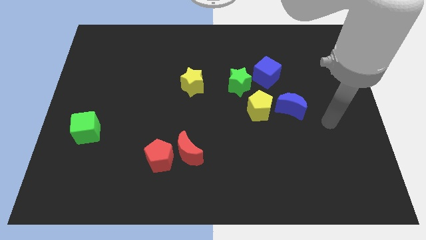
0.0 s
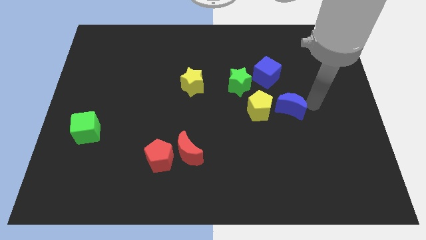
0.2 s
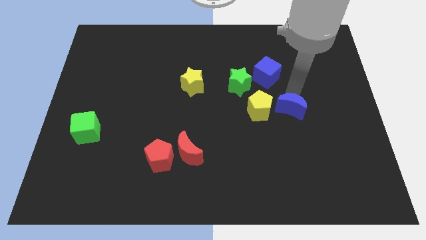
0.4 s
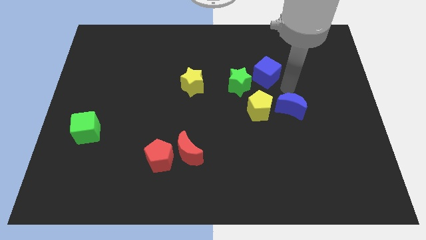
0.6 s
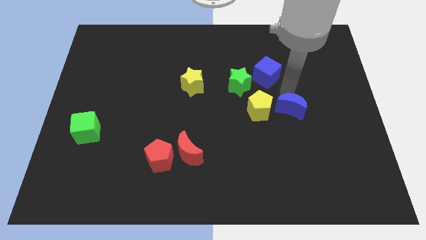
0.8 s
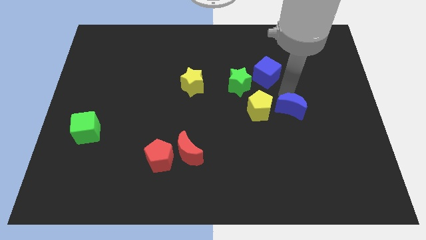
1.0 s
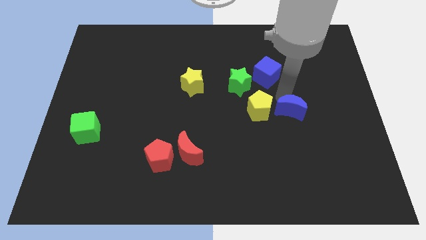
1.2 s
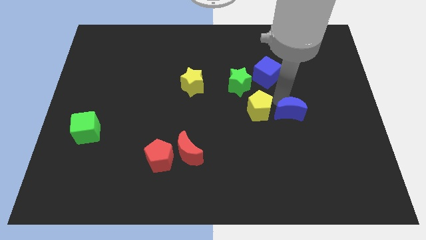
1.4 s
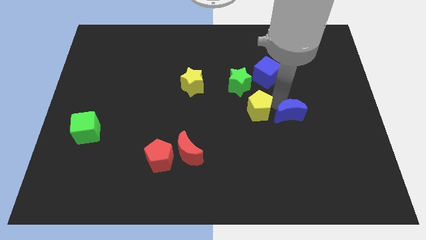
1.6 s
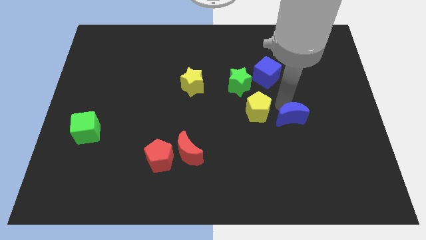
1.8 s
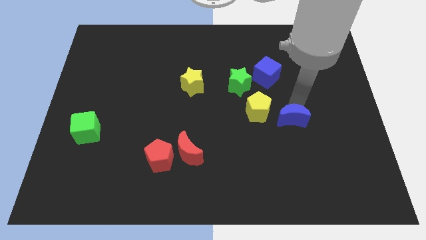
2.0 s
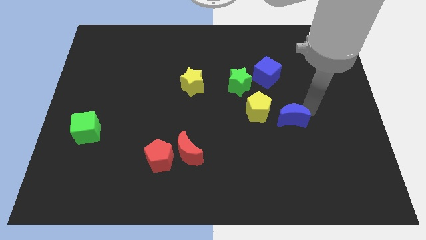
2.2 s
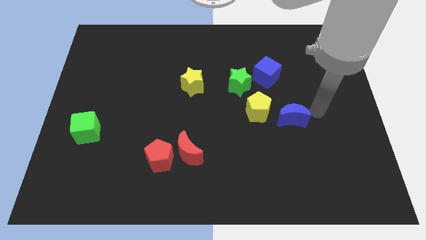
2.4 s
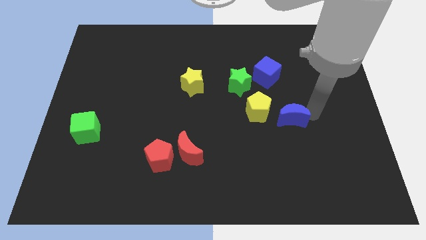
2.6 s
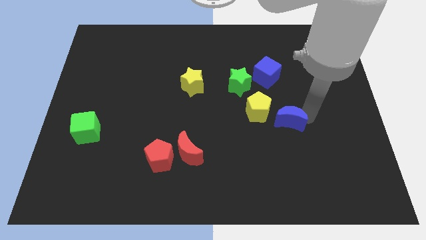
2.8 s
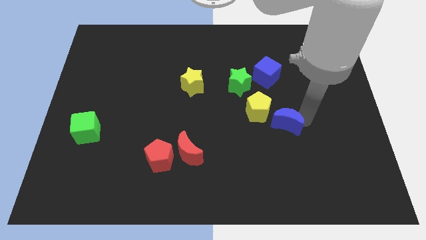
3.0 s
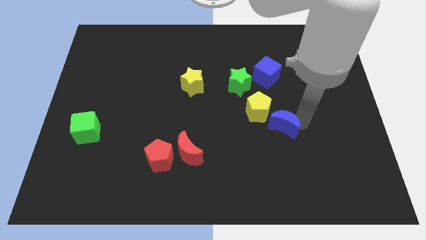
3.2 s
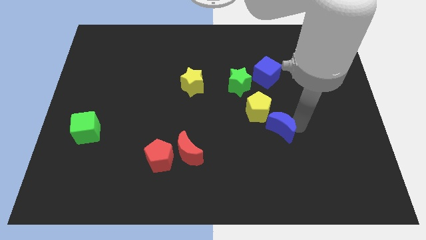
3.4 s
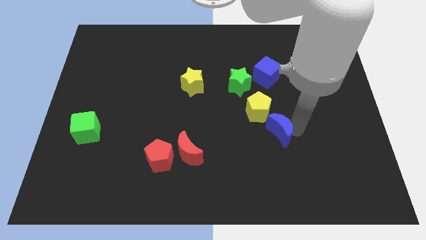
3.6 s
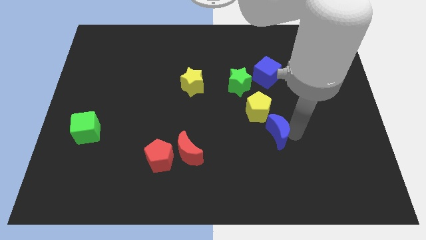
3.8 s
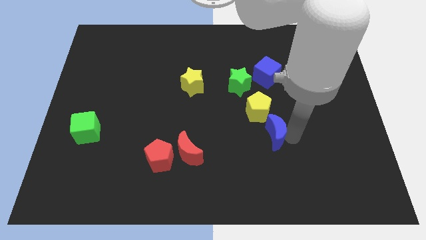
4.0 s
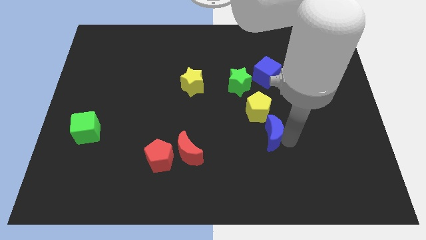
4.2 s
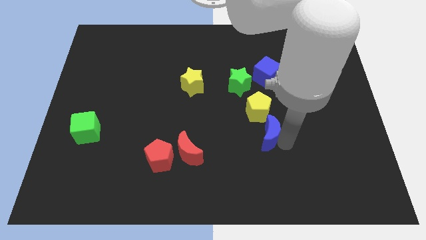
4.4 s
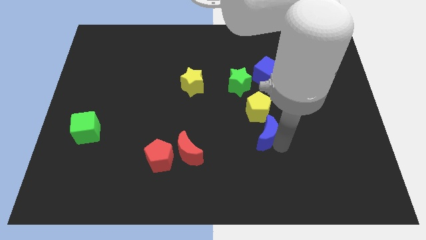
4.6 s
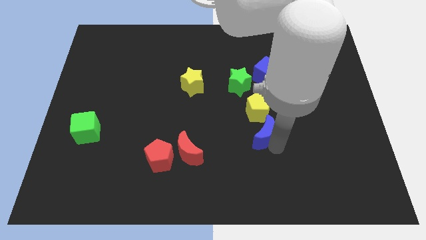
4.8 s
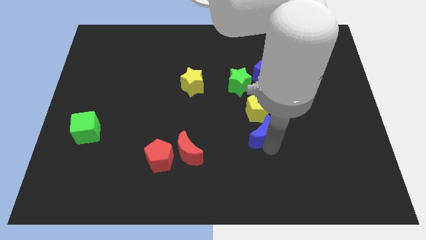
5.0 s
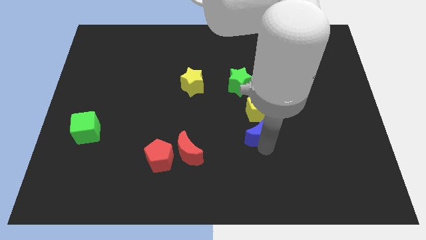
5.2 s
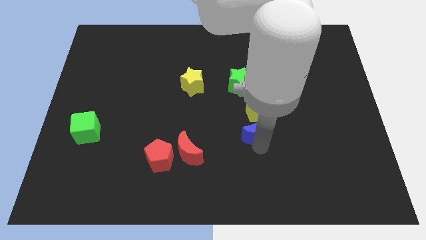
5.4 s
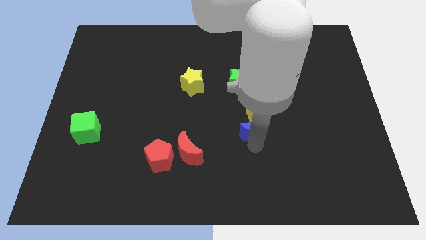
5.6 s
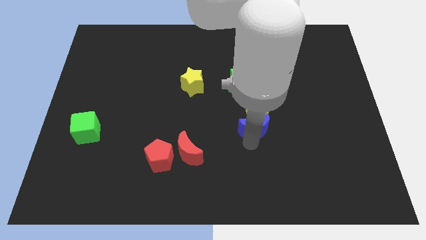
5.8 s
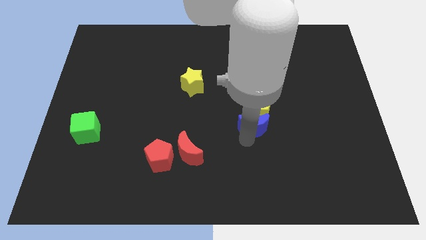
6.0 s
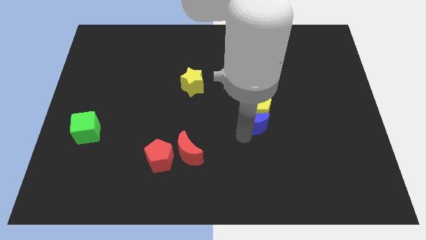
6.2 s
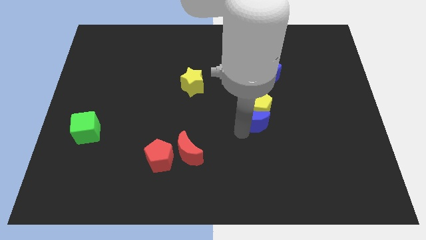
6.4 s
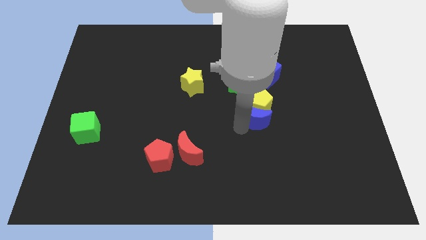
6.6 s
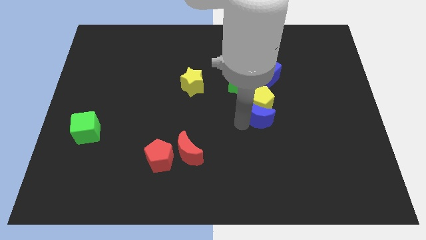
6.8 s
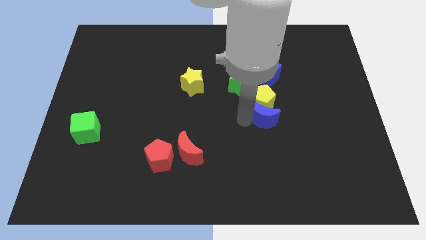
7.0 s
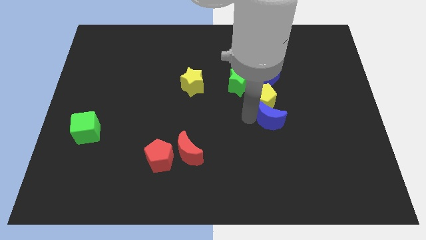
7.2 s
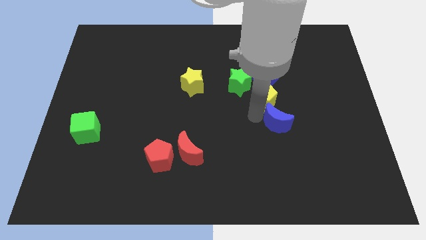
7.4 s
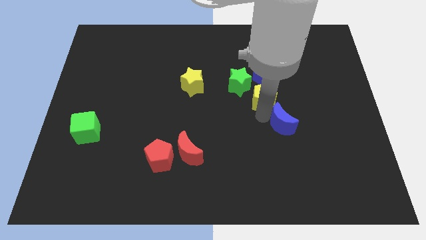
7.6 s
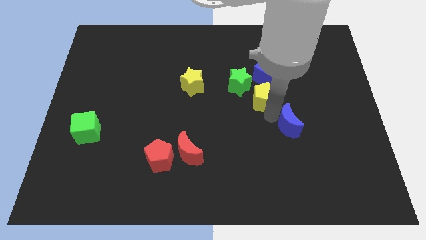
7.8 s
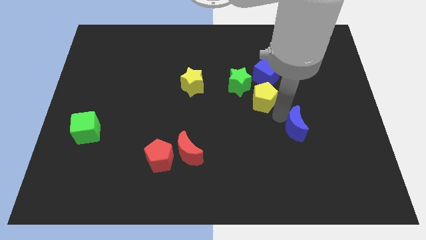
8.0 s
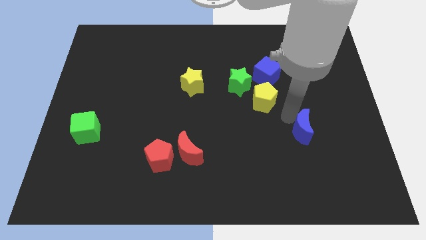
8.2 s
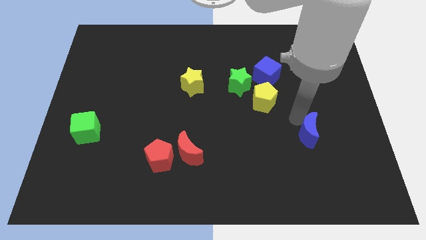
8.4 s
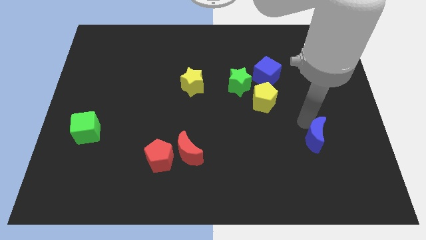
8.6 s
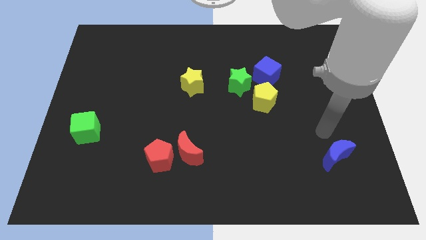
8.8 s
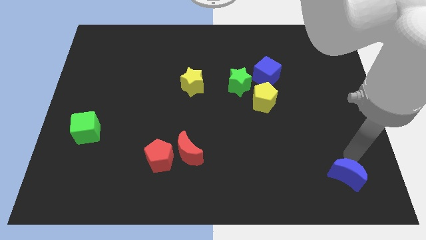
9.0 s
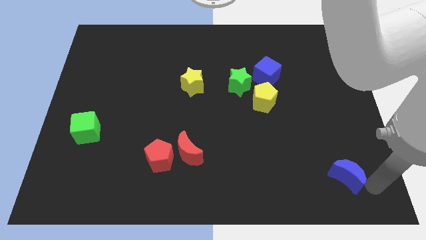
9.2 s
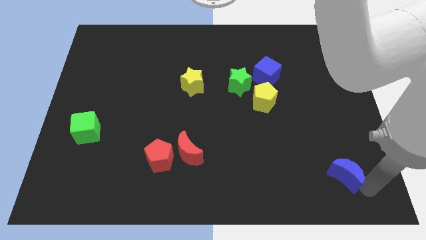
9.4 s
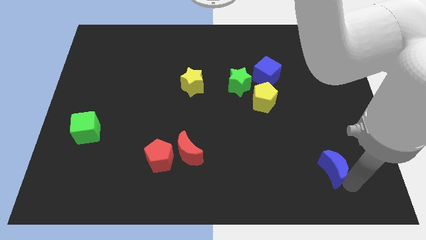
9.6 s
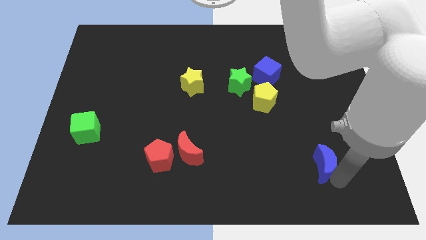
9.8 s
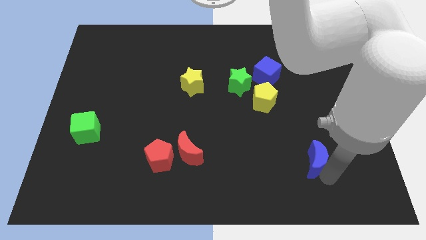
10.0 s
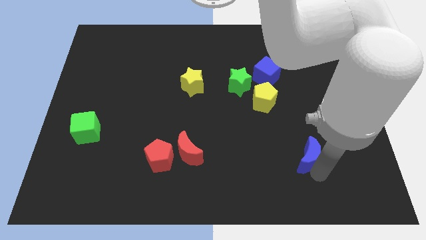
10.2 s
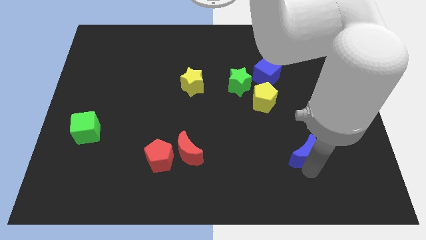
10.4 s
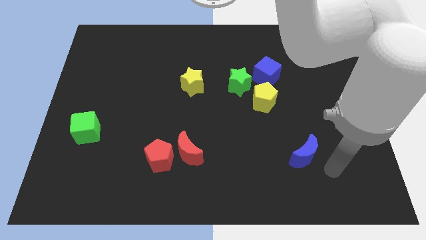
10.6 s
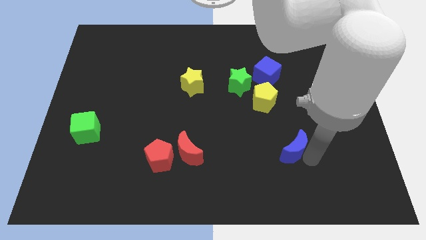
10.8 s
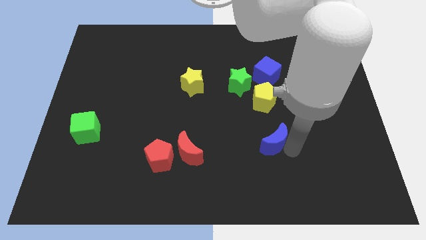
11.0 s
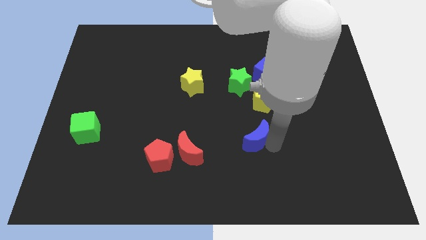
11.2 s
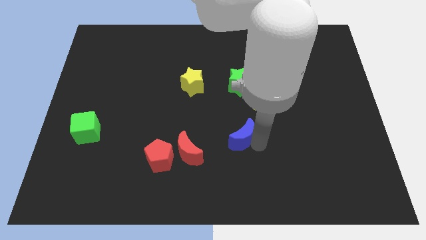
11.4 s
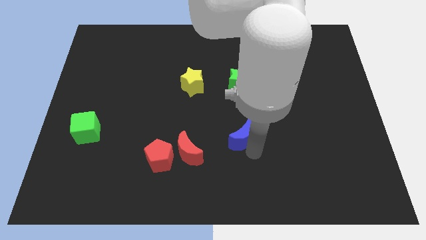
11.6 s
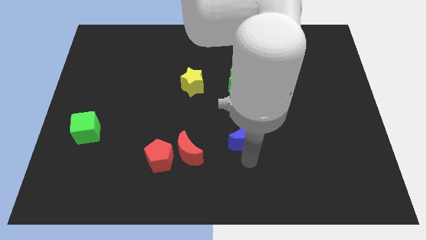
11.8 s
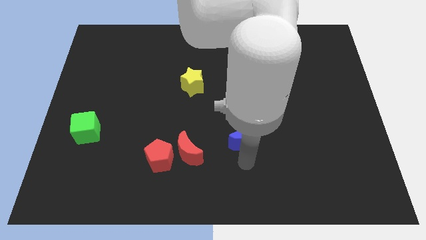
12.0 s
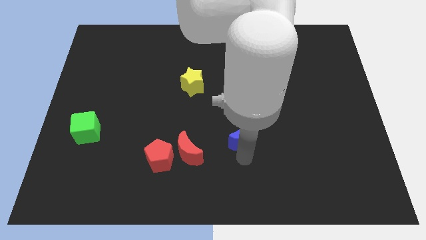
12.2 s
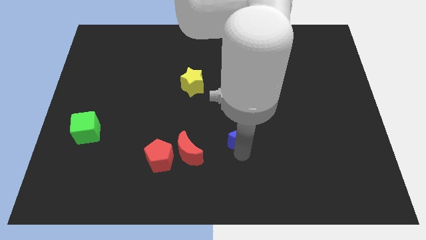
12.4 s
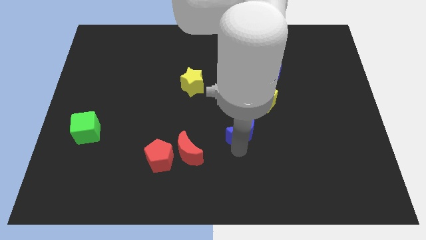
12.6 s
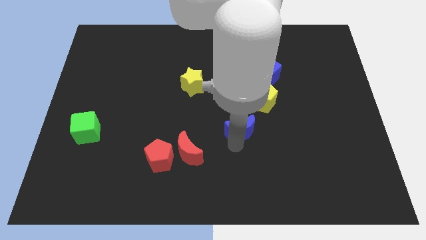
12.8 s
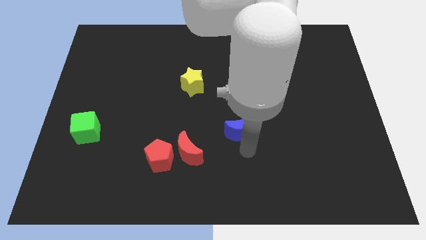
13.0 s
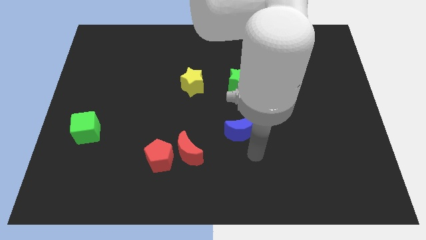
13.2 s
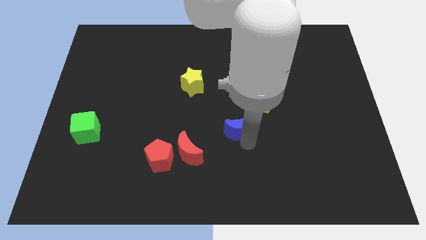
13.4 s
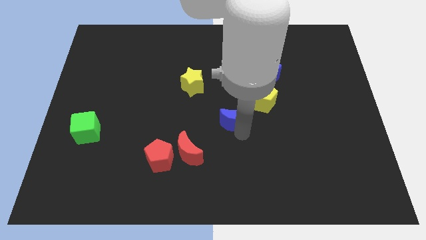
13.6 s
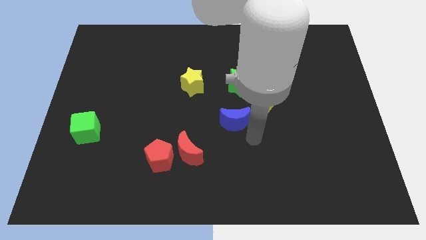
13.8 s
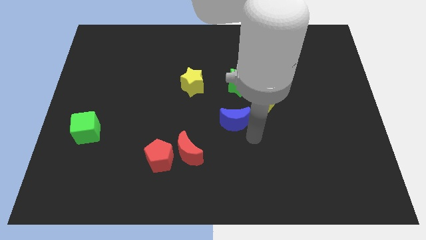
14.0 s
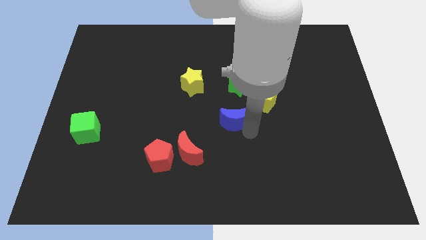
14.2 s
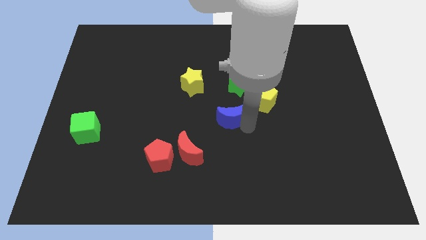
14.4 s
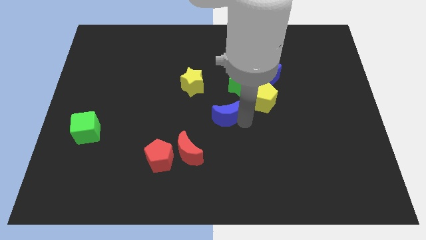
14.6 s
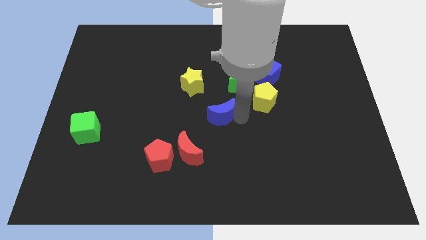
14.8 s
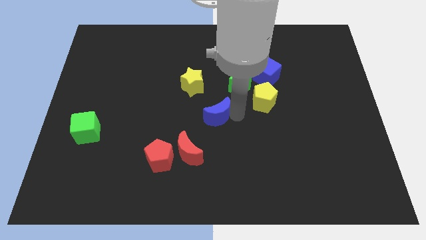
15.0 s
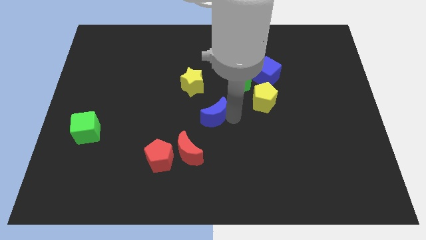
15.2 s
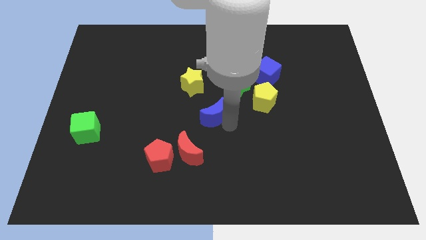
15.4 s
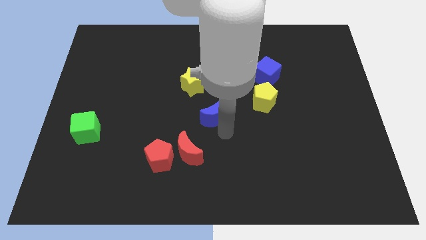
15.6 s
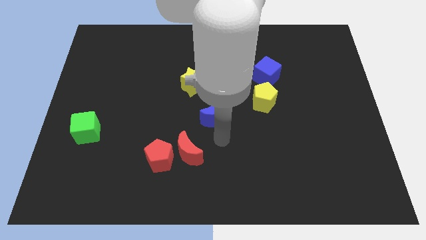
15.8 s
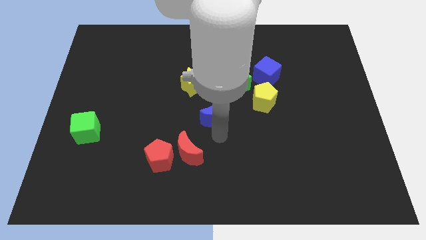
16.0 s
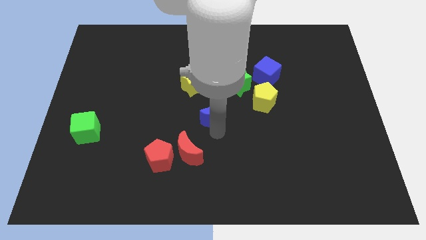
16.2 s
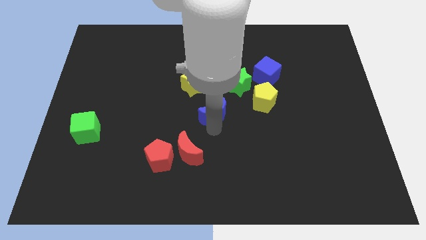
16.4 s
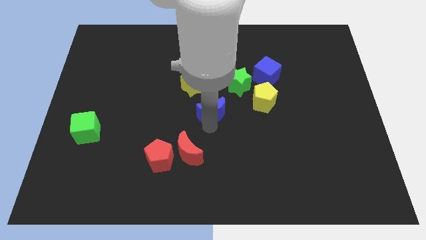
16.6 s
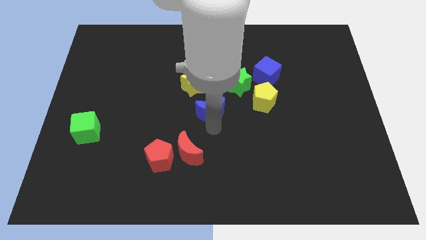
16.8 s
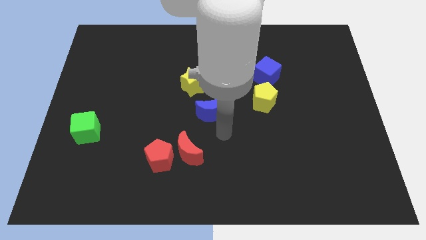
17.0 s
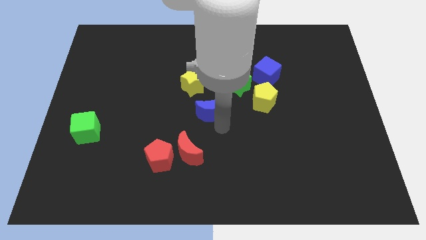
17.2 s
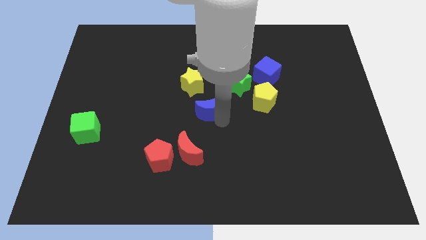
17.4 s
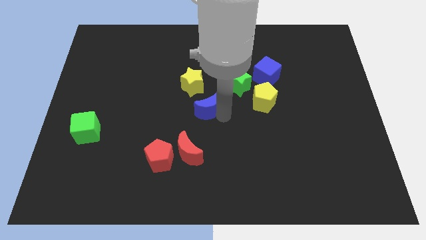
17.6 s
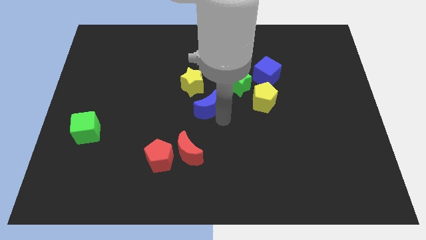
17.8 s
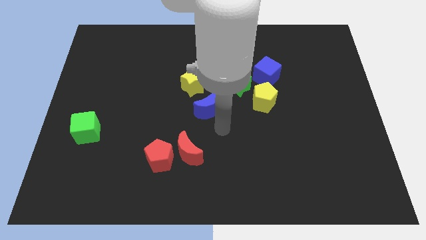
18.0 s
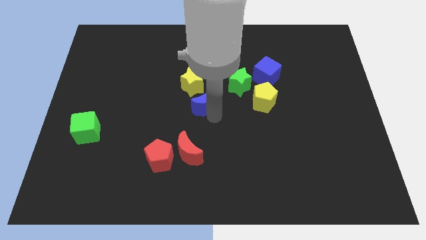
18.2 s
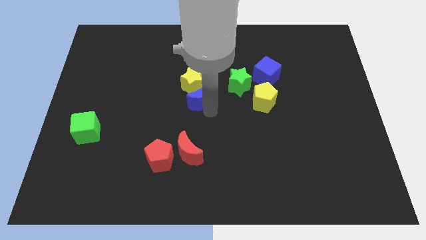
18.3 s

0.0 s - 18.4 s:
put the blue moon towards the yellow star
